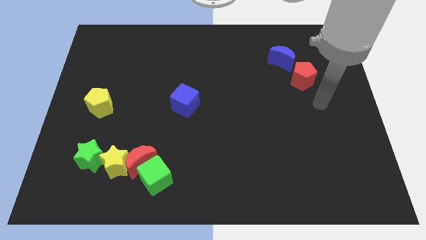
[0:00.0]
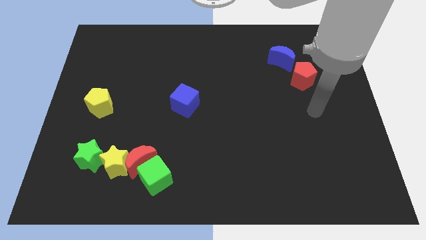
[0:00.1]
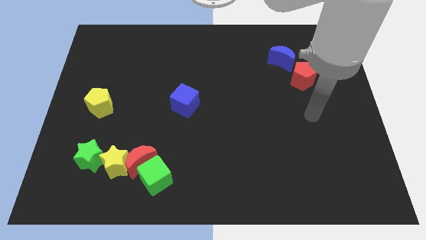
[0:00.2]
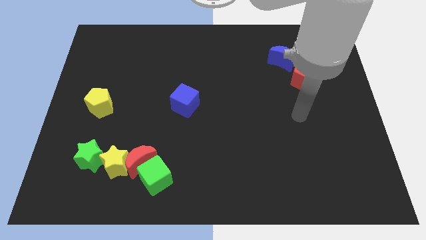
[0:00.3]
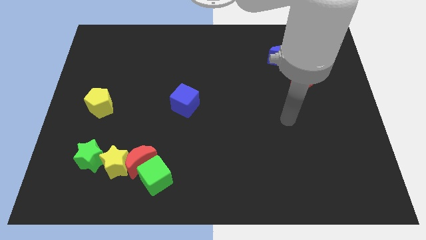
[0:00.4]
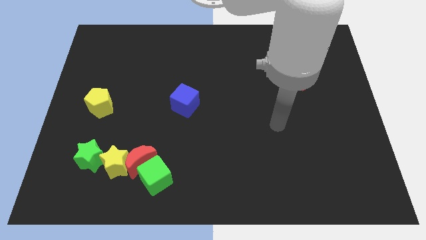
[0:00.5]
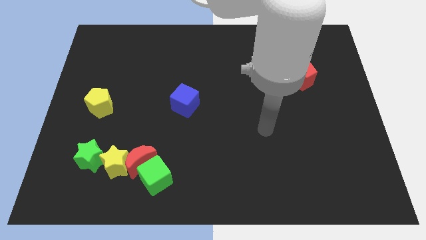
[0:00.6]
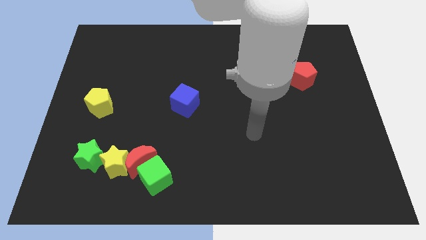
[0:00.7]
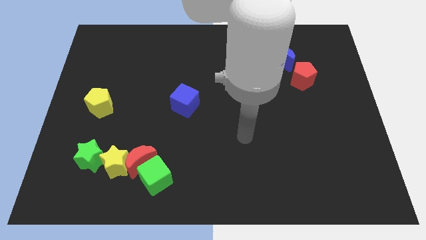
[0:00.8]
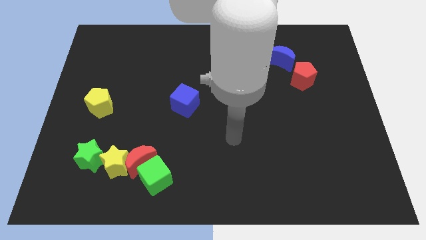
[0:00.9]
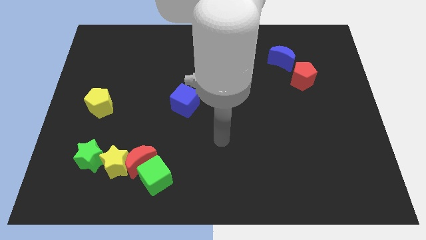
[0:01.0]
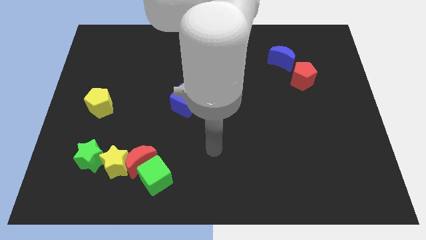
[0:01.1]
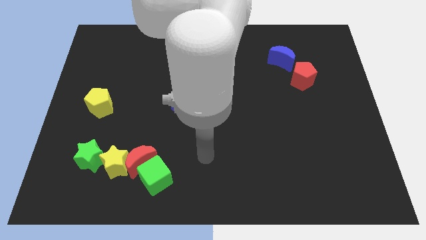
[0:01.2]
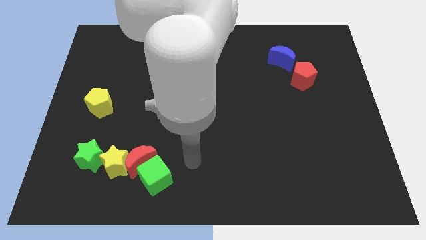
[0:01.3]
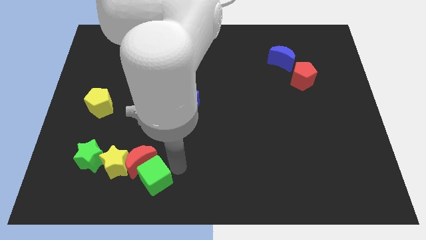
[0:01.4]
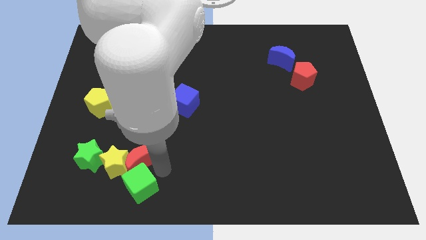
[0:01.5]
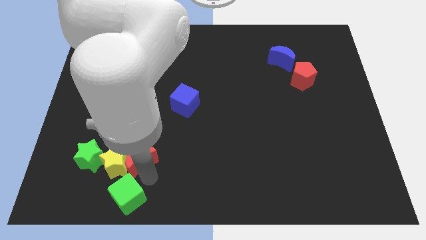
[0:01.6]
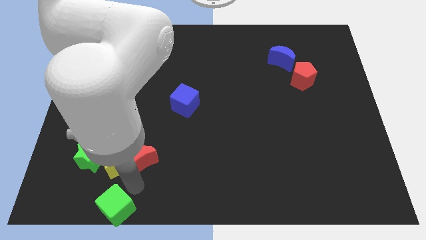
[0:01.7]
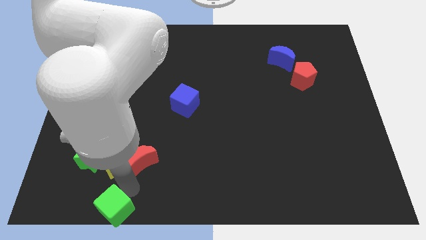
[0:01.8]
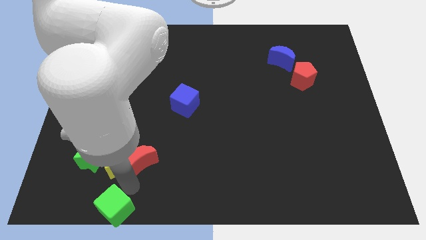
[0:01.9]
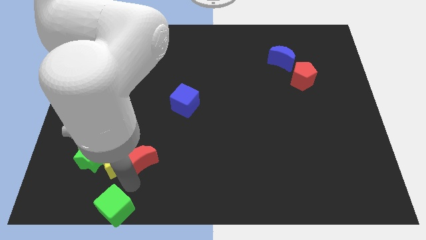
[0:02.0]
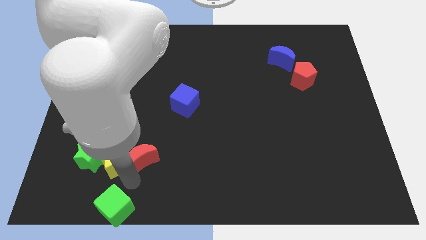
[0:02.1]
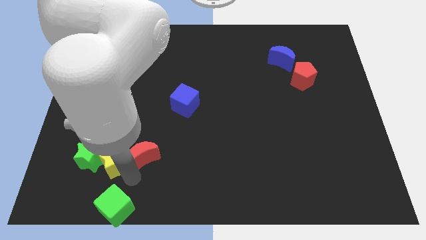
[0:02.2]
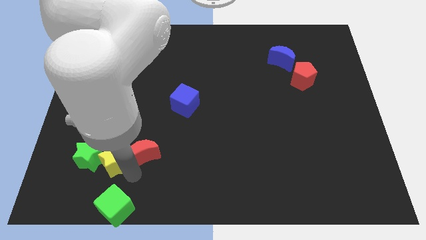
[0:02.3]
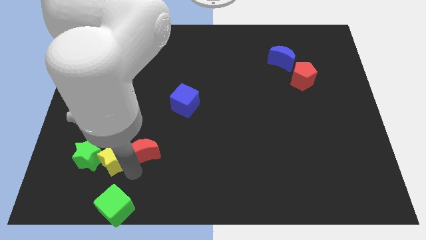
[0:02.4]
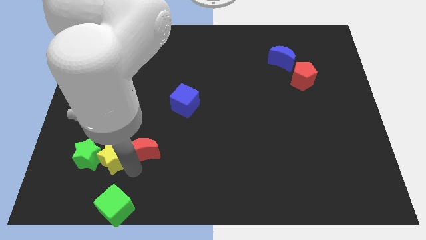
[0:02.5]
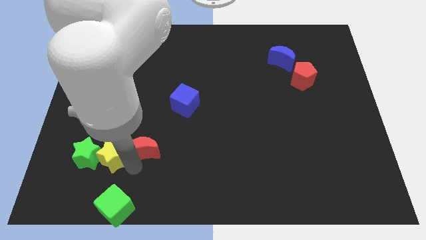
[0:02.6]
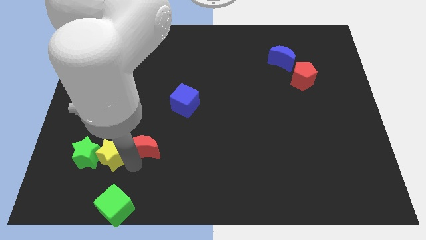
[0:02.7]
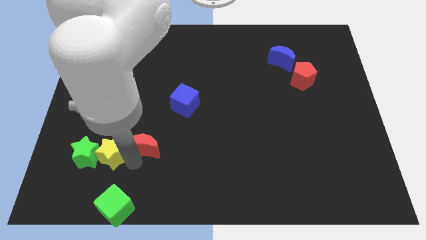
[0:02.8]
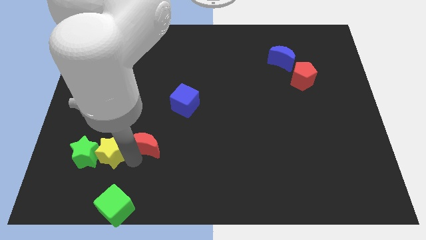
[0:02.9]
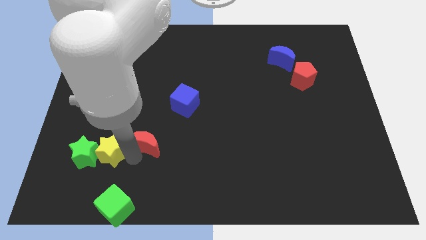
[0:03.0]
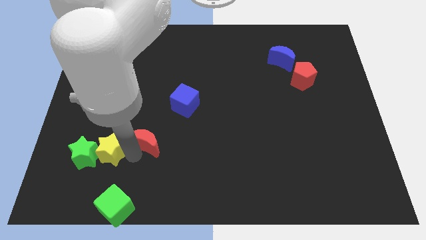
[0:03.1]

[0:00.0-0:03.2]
separate the red moon from the yellow star and green cube

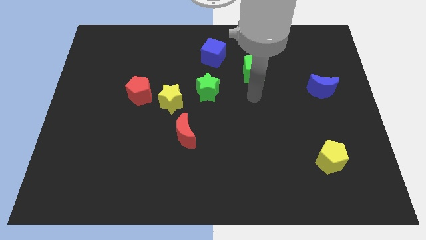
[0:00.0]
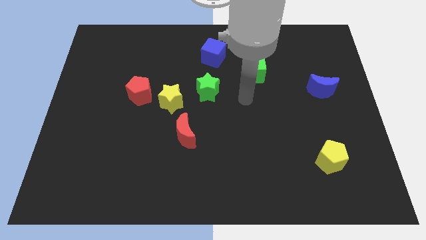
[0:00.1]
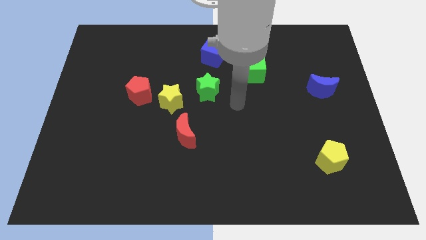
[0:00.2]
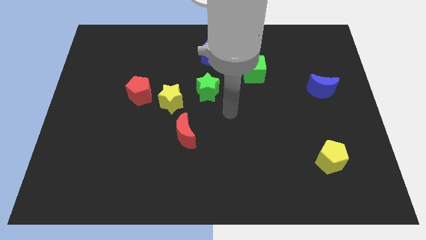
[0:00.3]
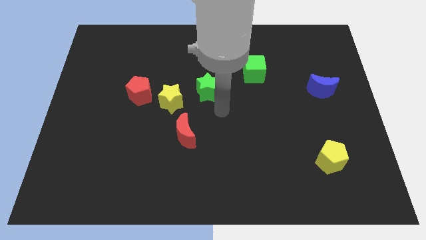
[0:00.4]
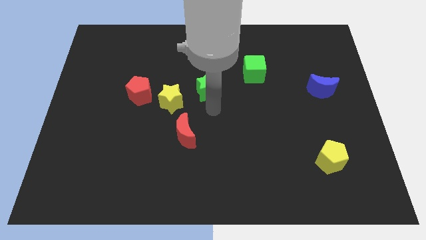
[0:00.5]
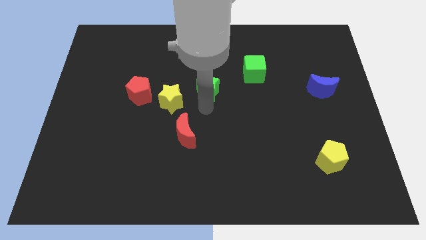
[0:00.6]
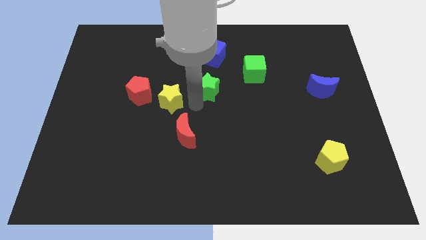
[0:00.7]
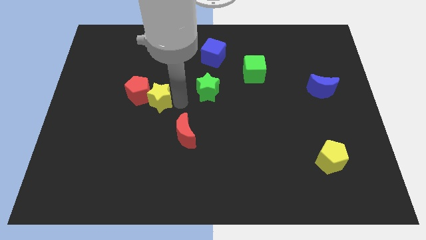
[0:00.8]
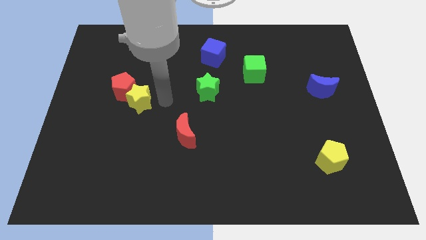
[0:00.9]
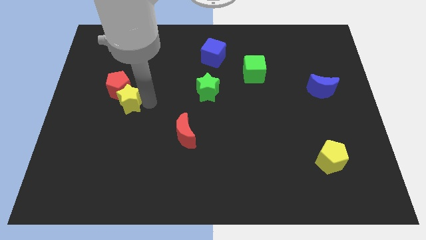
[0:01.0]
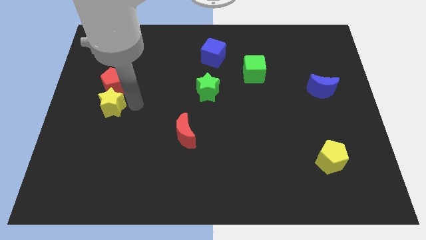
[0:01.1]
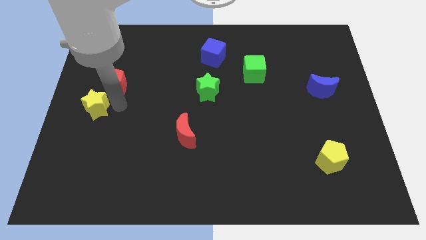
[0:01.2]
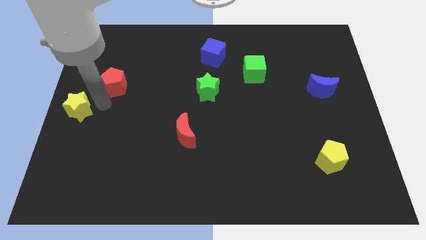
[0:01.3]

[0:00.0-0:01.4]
pull the red pentagon apart from the yellow star

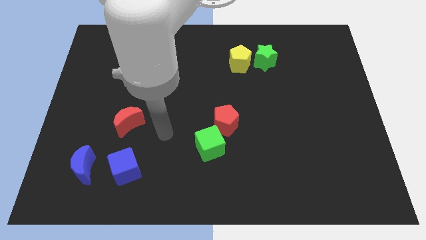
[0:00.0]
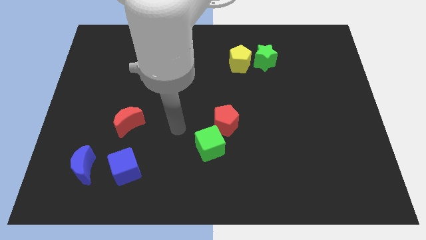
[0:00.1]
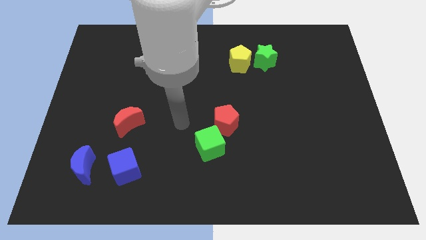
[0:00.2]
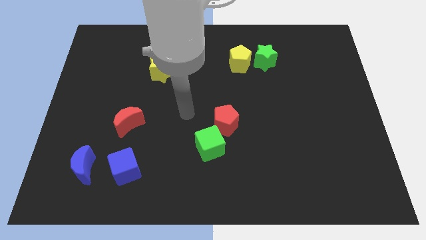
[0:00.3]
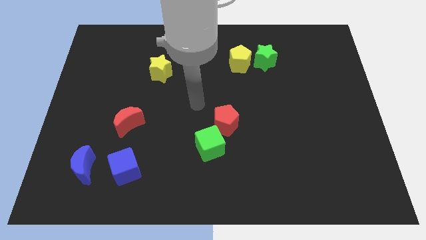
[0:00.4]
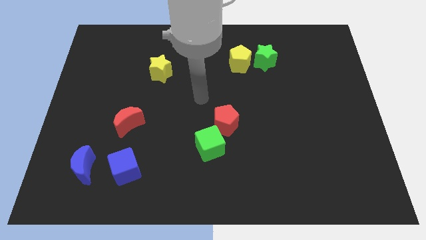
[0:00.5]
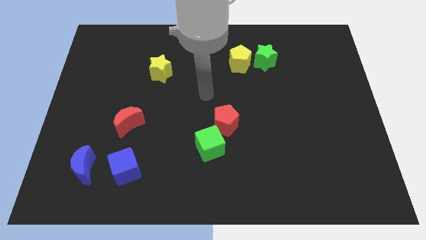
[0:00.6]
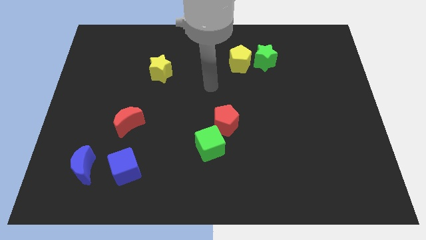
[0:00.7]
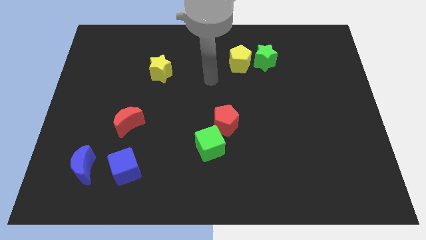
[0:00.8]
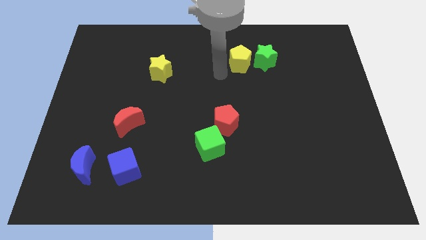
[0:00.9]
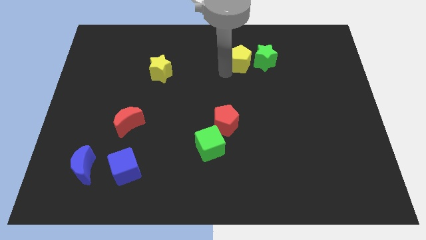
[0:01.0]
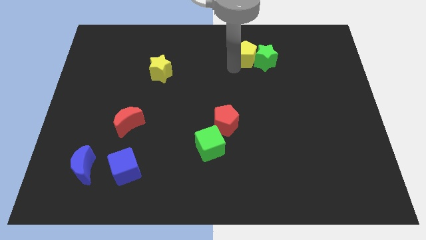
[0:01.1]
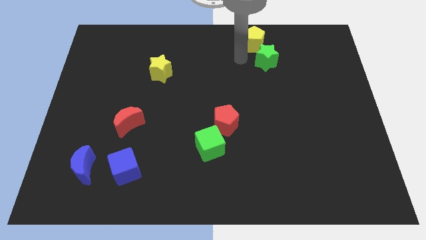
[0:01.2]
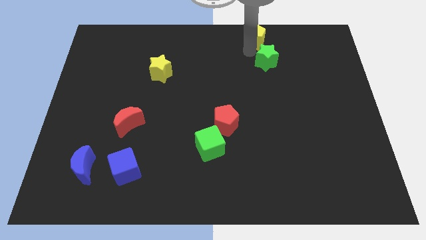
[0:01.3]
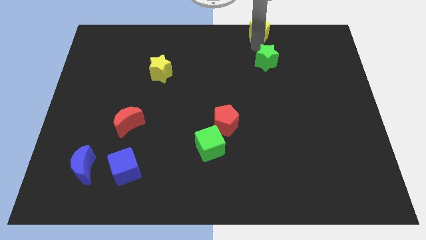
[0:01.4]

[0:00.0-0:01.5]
separate the green star from the yellow pentagon

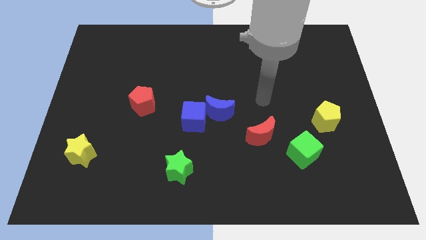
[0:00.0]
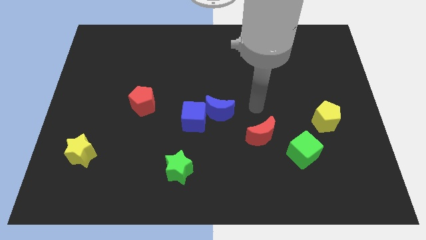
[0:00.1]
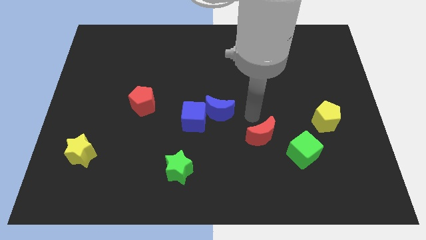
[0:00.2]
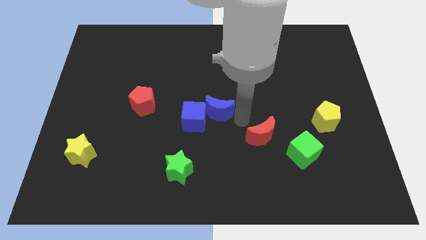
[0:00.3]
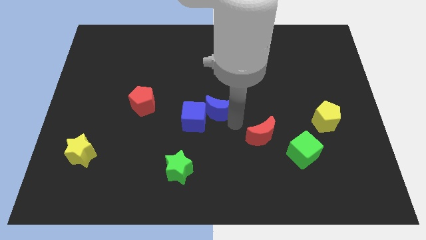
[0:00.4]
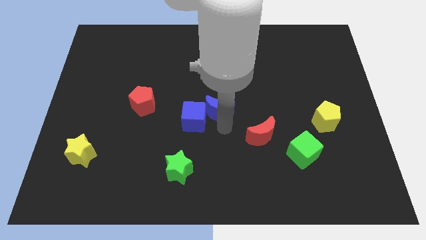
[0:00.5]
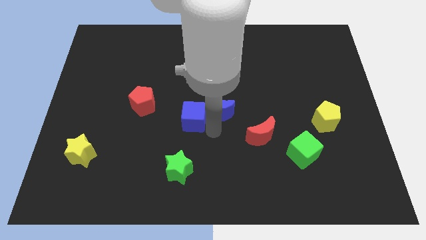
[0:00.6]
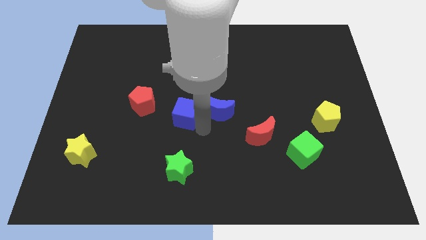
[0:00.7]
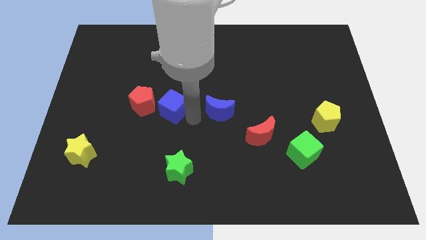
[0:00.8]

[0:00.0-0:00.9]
separate the blue moon from the blue cube

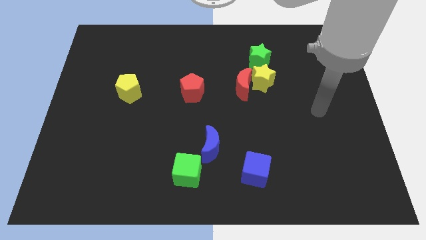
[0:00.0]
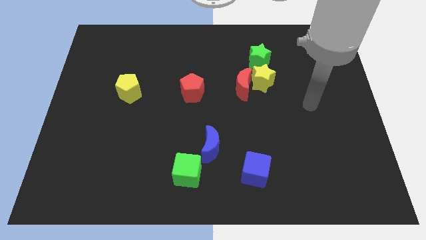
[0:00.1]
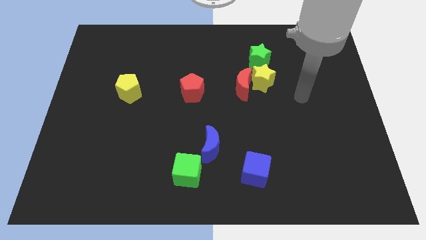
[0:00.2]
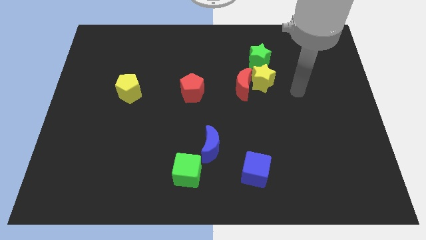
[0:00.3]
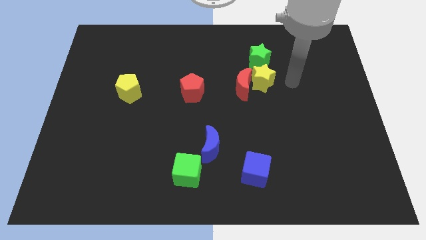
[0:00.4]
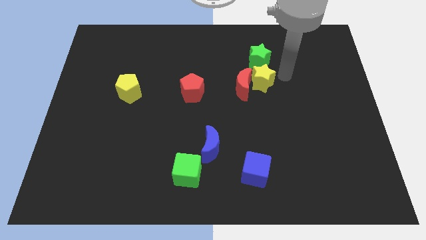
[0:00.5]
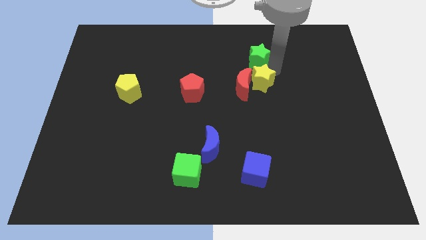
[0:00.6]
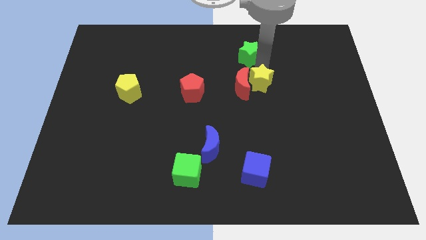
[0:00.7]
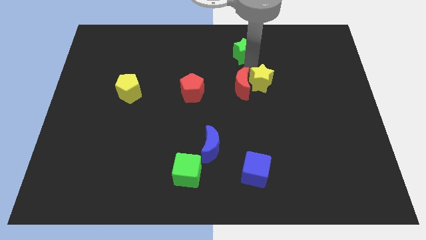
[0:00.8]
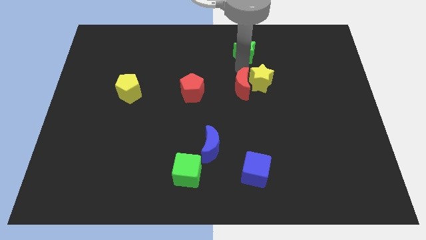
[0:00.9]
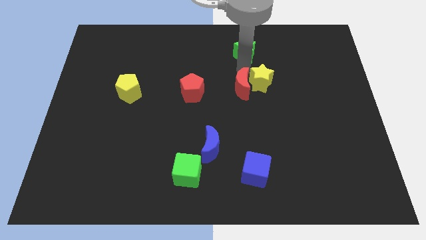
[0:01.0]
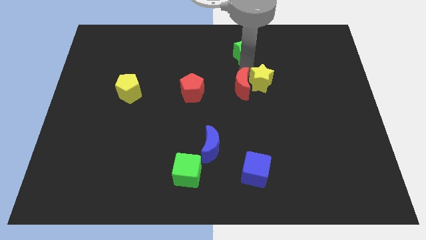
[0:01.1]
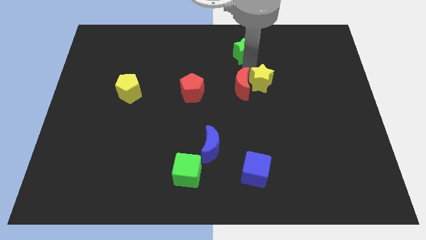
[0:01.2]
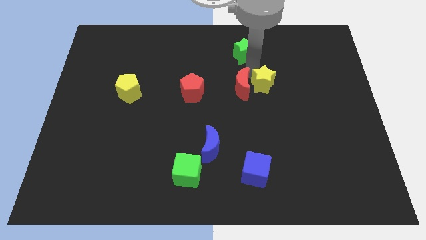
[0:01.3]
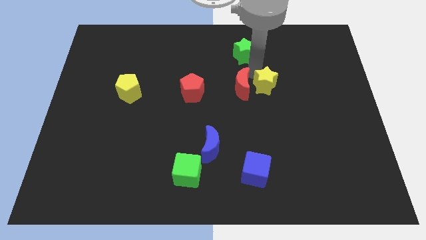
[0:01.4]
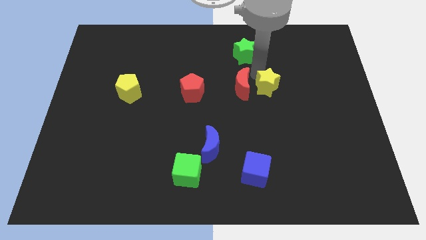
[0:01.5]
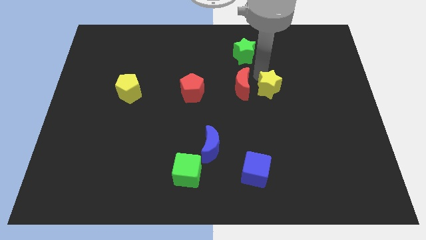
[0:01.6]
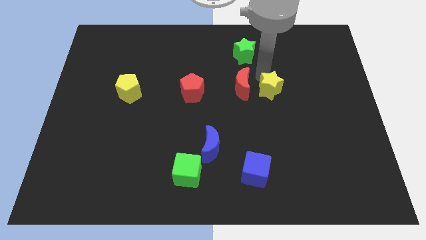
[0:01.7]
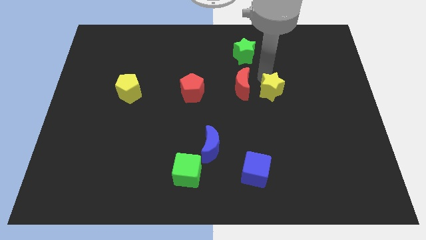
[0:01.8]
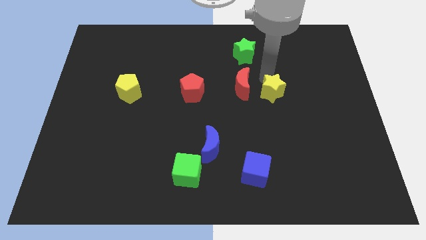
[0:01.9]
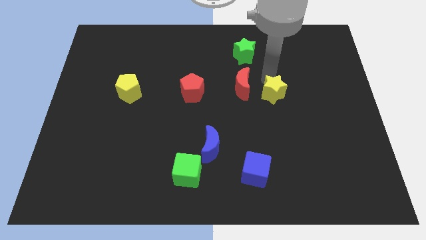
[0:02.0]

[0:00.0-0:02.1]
move the yellow star away from the red moon and green star

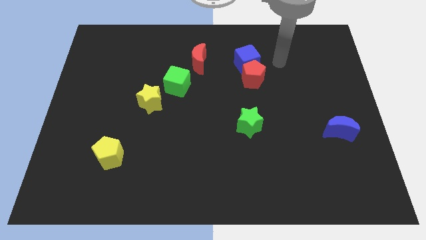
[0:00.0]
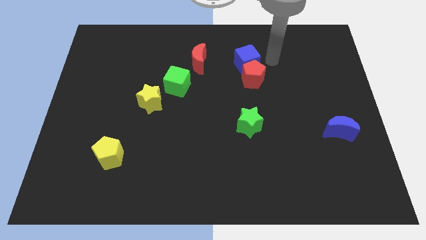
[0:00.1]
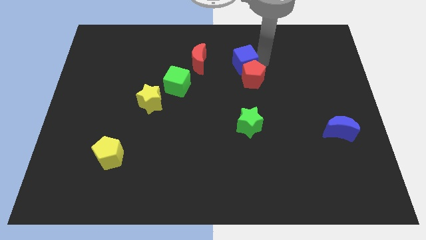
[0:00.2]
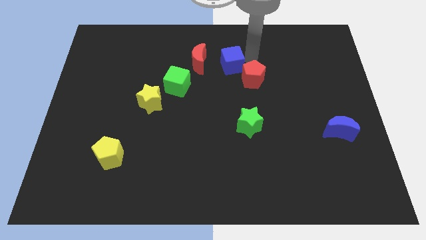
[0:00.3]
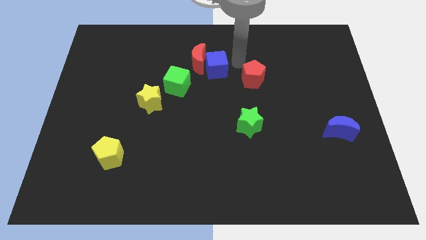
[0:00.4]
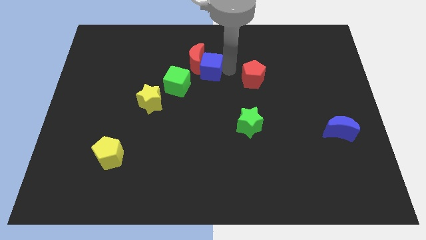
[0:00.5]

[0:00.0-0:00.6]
move the red pentagon away from the blue cube
